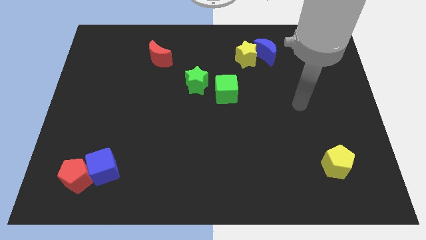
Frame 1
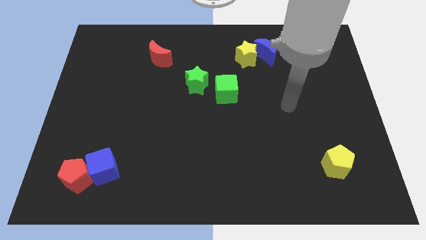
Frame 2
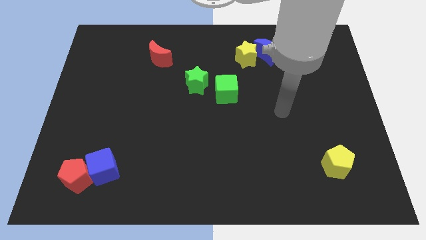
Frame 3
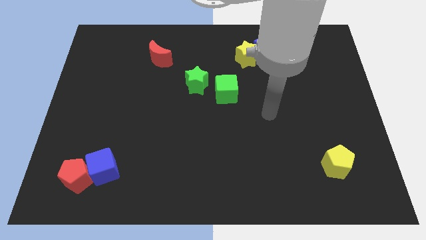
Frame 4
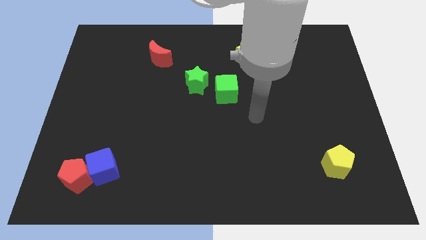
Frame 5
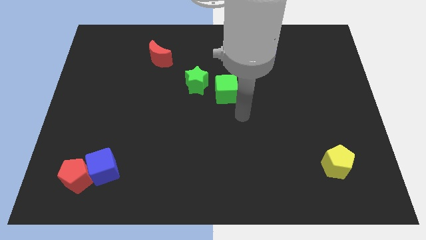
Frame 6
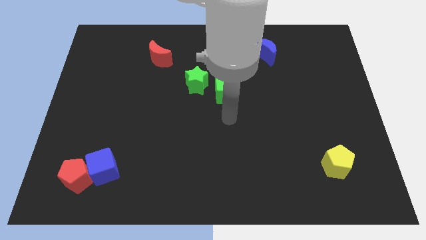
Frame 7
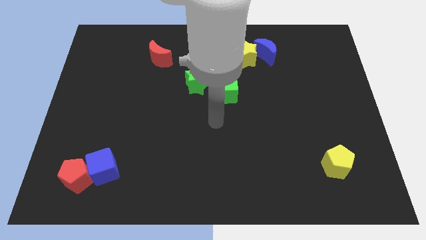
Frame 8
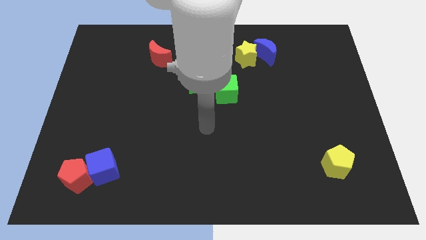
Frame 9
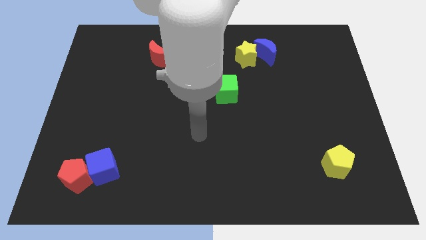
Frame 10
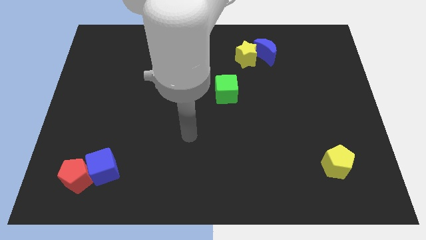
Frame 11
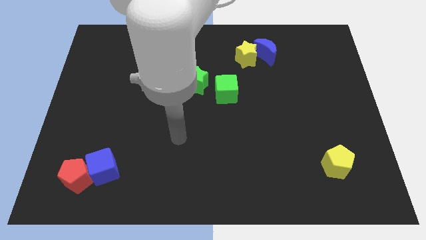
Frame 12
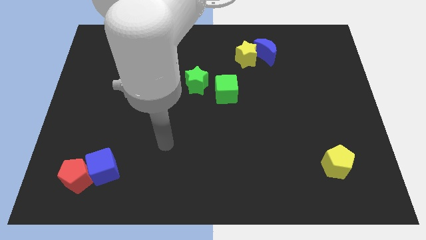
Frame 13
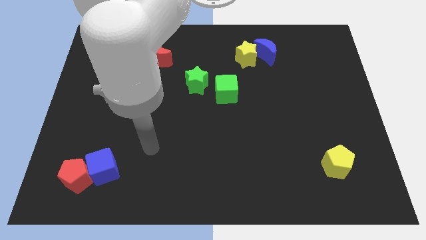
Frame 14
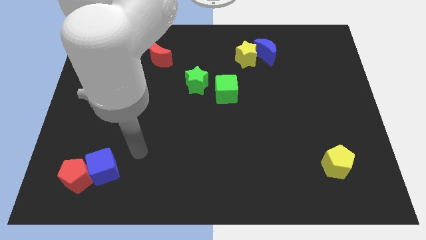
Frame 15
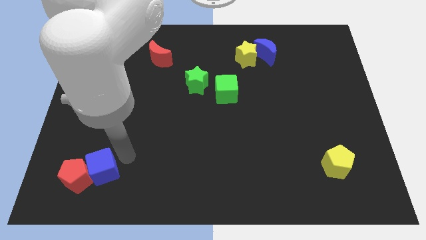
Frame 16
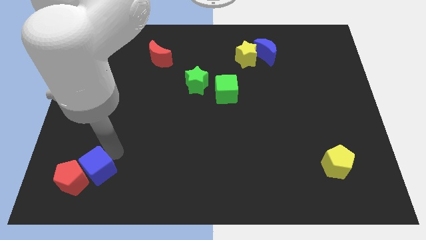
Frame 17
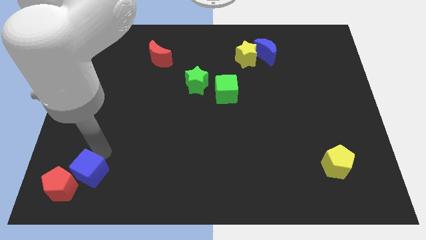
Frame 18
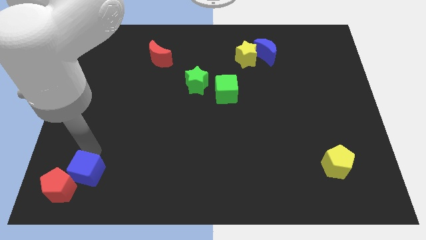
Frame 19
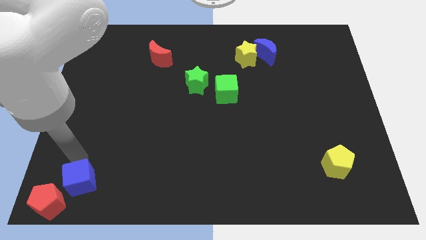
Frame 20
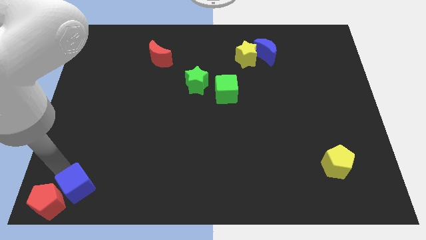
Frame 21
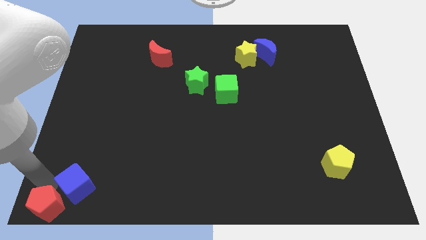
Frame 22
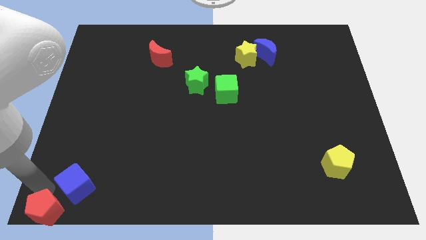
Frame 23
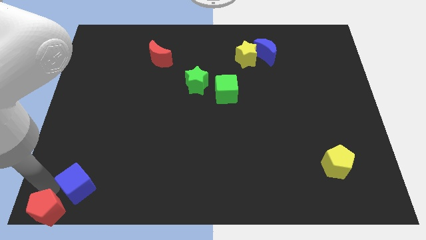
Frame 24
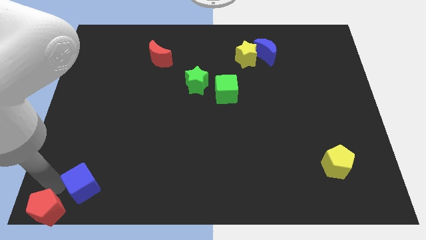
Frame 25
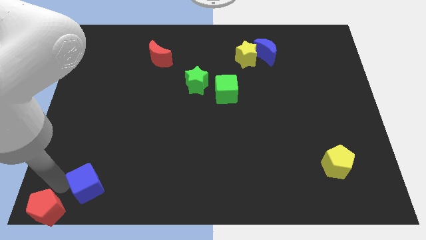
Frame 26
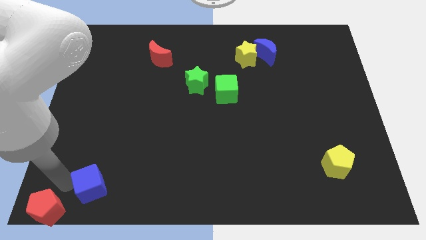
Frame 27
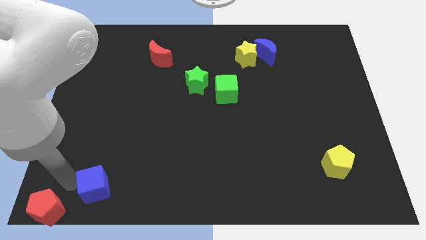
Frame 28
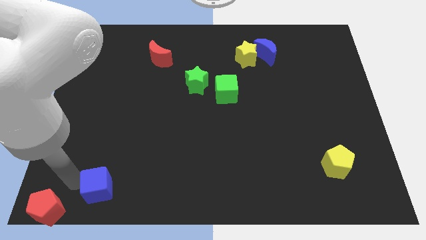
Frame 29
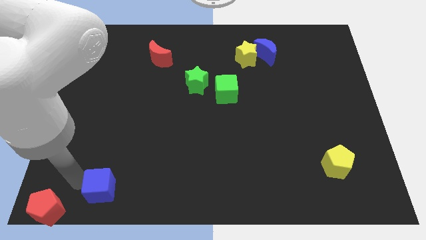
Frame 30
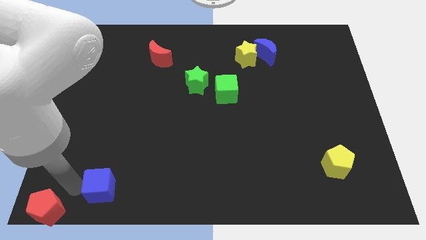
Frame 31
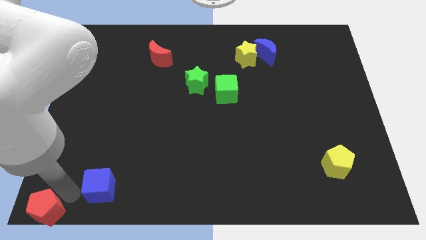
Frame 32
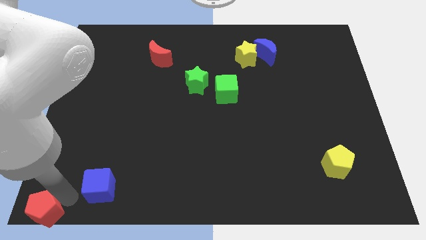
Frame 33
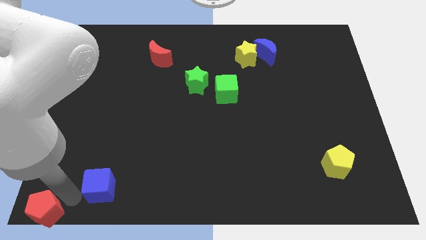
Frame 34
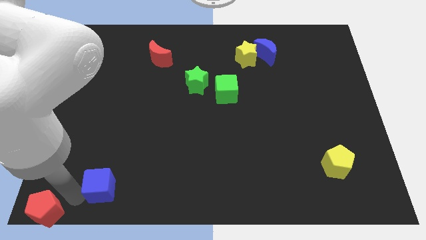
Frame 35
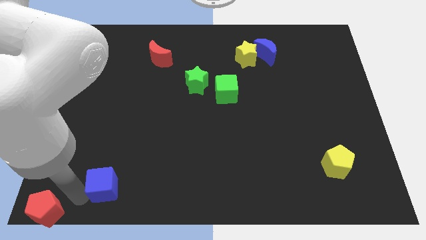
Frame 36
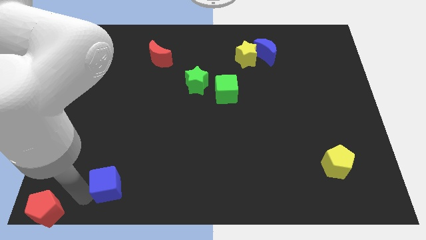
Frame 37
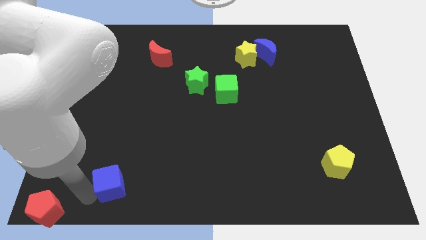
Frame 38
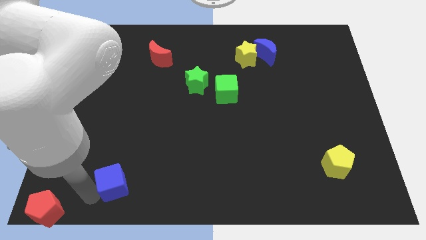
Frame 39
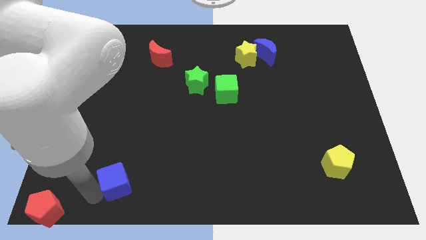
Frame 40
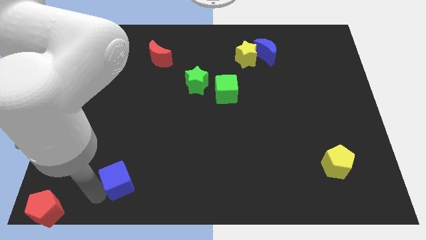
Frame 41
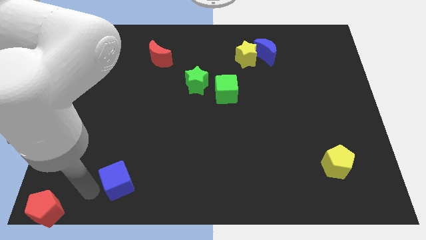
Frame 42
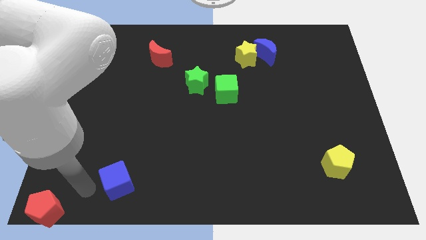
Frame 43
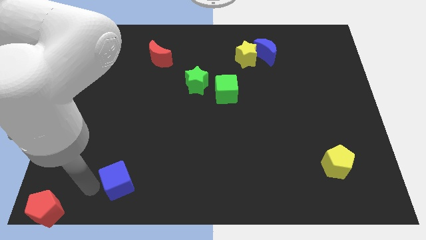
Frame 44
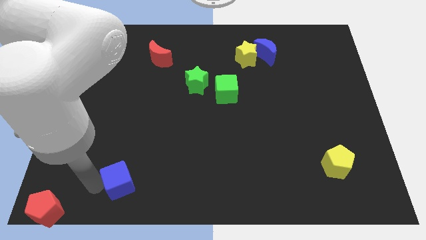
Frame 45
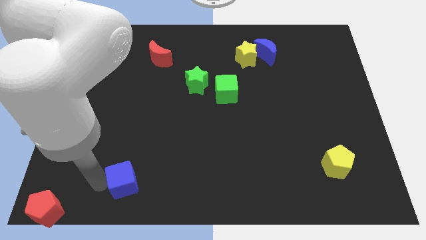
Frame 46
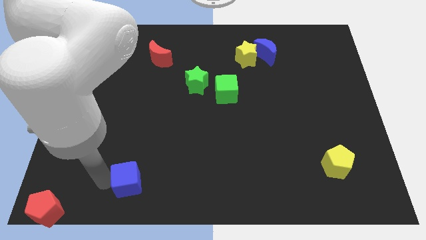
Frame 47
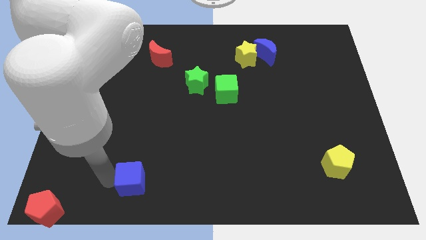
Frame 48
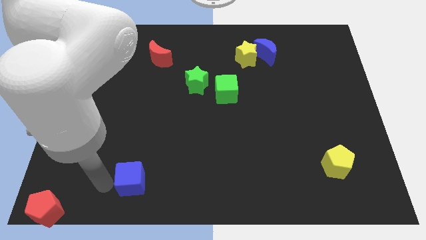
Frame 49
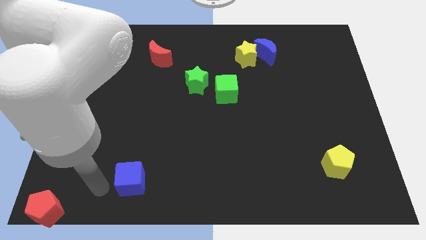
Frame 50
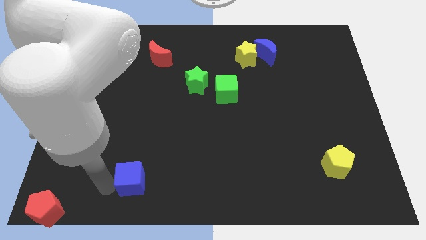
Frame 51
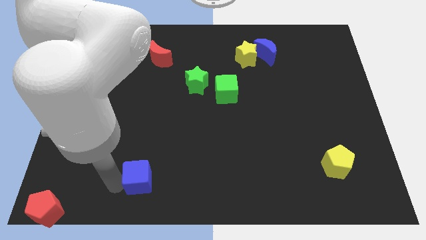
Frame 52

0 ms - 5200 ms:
slightly move the blue cube to the right

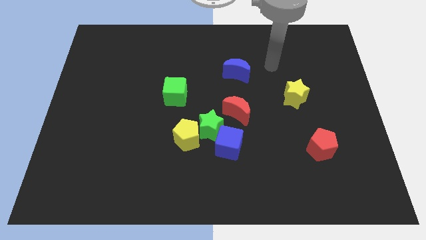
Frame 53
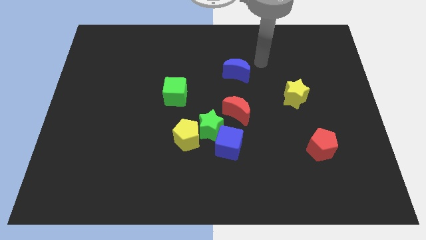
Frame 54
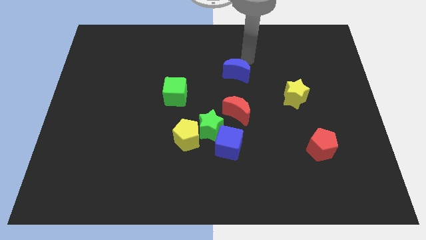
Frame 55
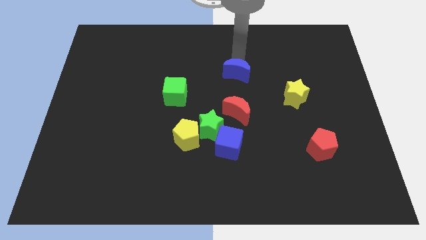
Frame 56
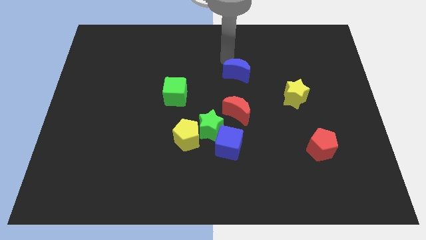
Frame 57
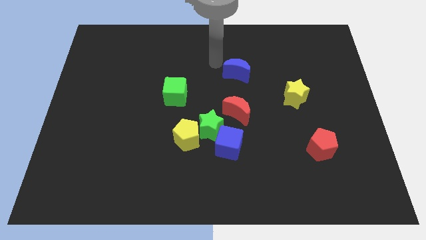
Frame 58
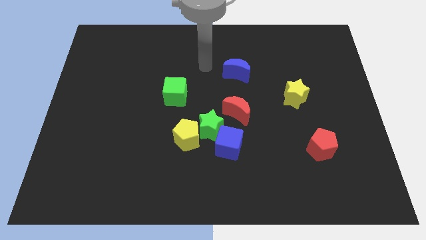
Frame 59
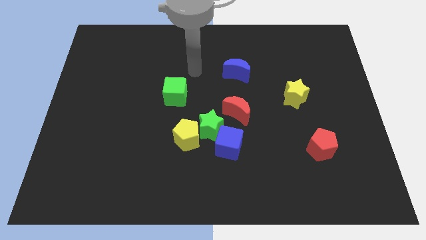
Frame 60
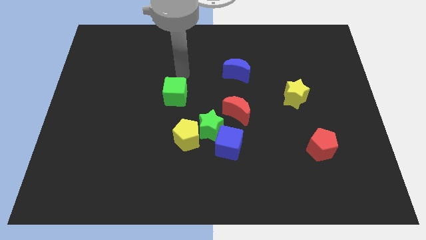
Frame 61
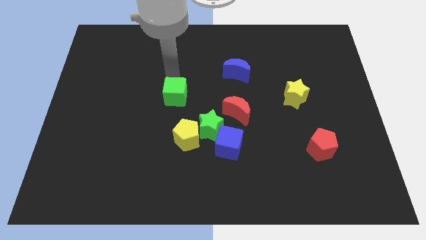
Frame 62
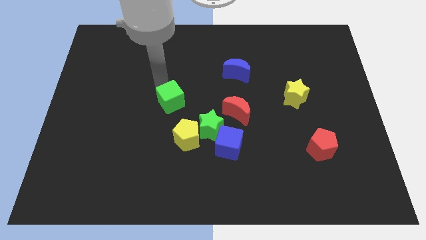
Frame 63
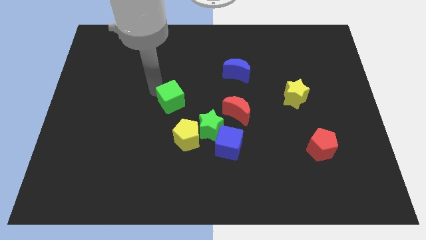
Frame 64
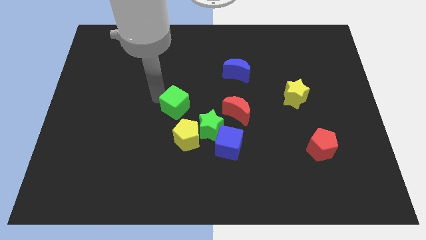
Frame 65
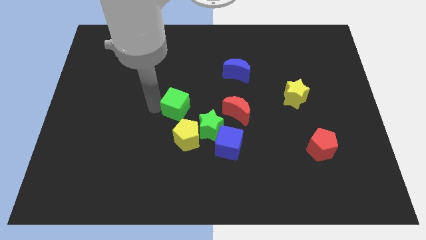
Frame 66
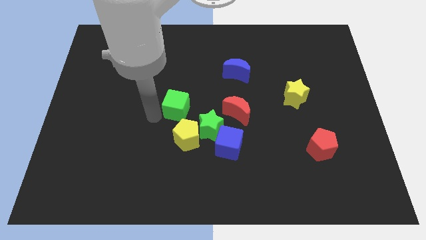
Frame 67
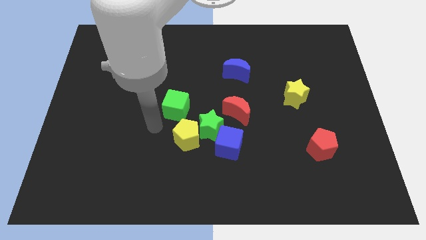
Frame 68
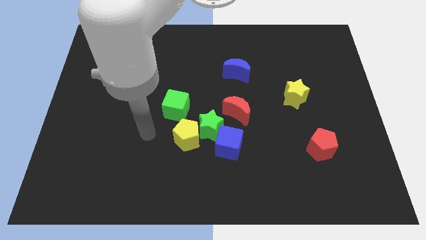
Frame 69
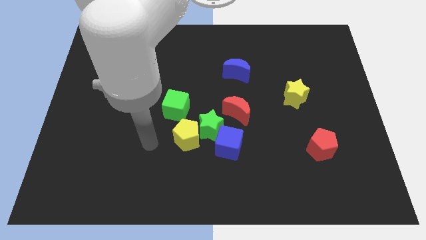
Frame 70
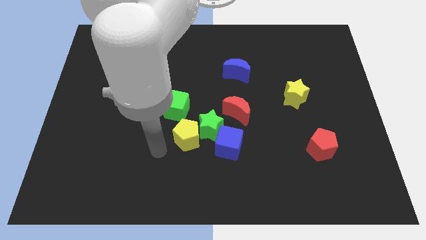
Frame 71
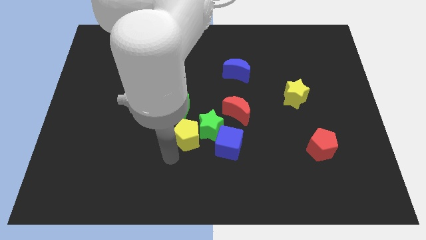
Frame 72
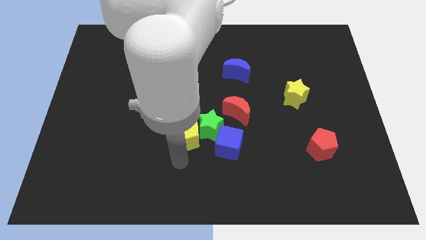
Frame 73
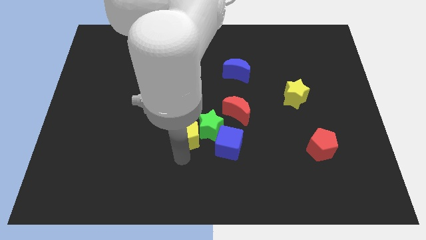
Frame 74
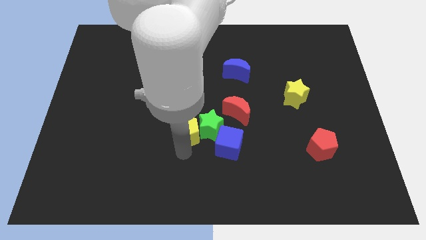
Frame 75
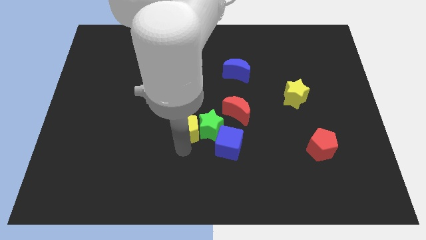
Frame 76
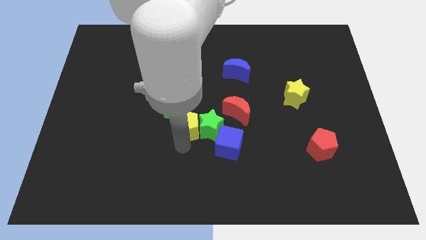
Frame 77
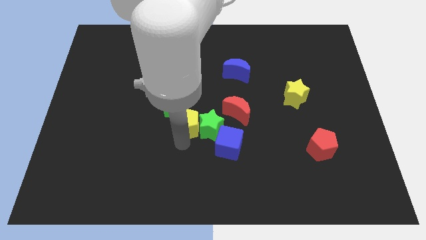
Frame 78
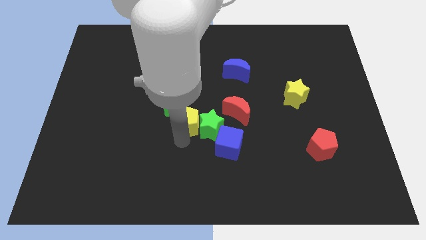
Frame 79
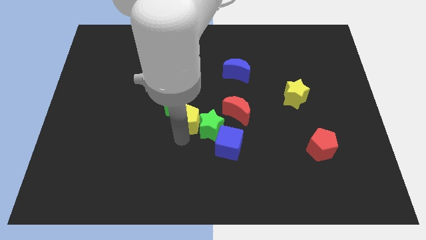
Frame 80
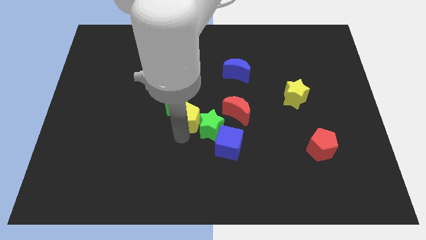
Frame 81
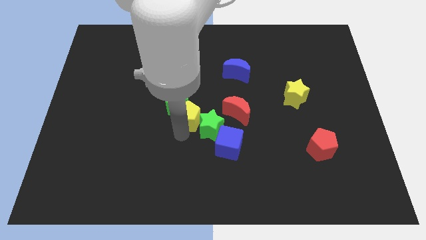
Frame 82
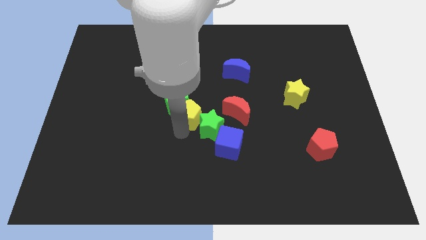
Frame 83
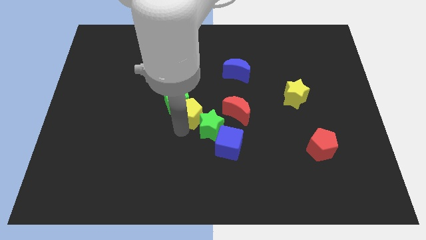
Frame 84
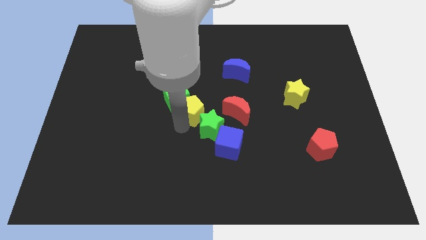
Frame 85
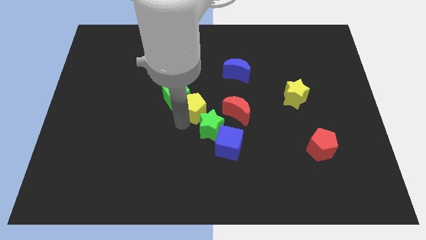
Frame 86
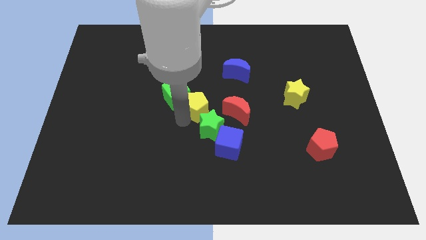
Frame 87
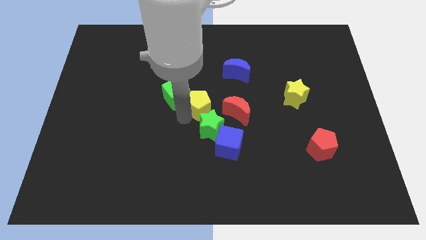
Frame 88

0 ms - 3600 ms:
slightly push the yellow pentagon up and then right
